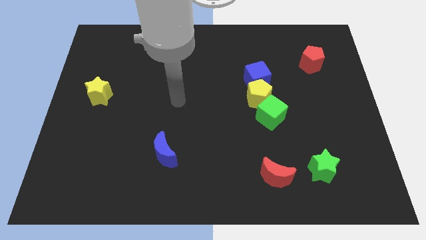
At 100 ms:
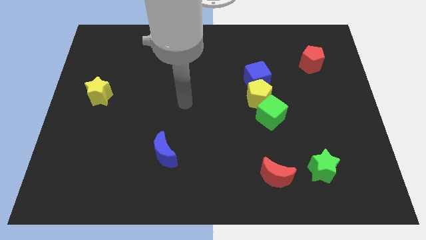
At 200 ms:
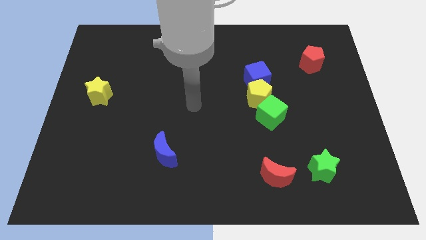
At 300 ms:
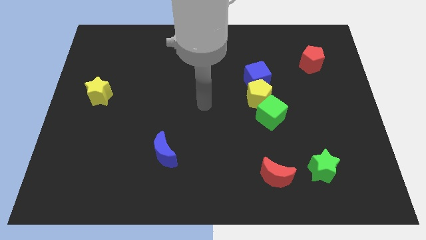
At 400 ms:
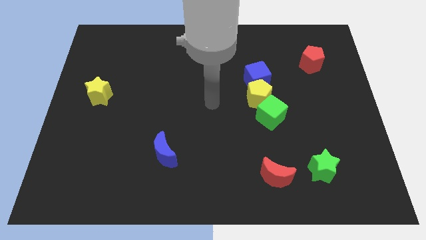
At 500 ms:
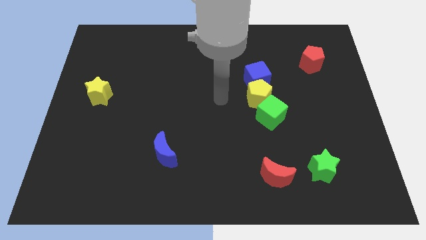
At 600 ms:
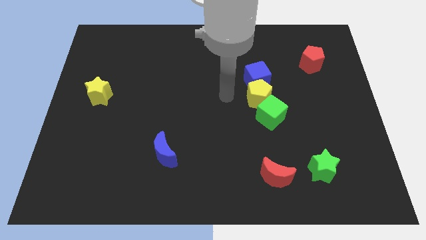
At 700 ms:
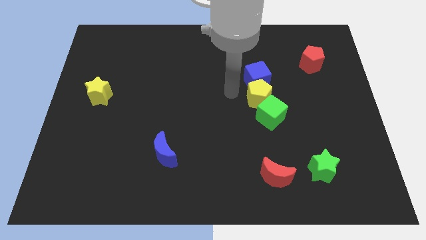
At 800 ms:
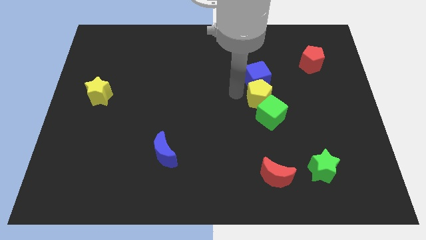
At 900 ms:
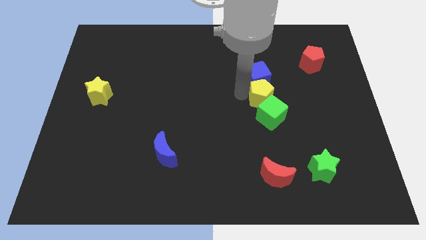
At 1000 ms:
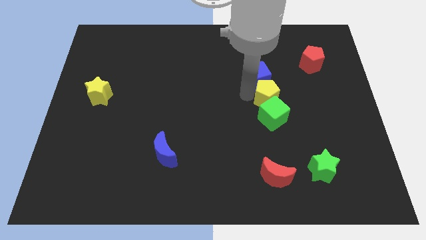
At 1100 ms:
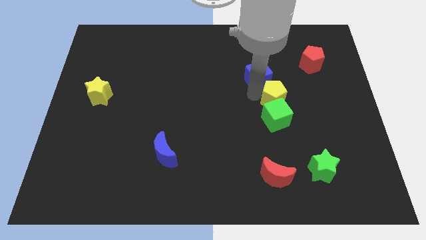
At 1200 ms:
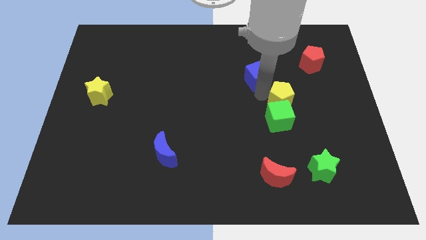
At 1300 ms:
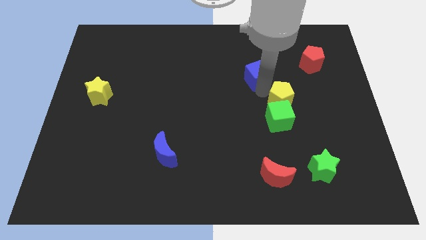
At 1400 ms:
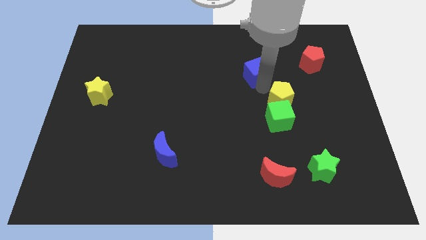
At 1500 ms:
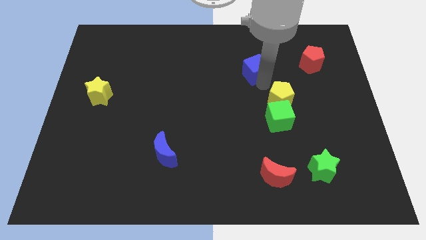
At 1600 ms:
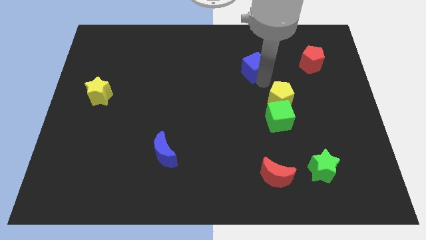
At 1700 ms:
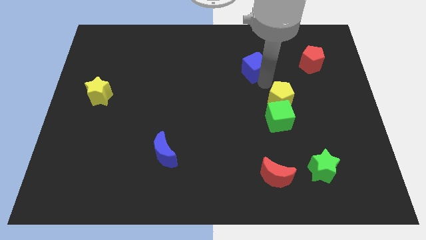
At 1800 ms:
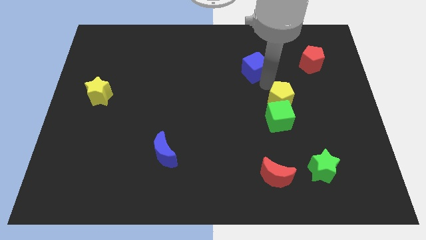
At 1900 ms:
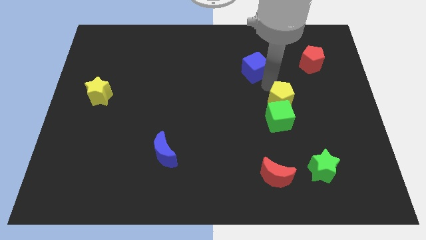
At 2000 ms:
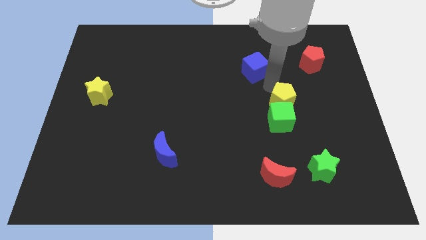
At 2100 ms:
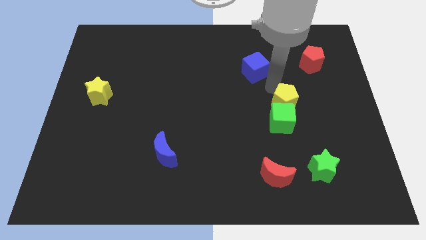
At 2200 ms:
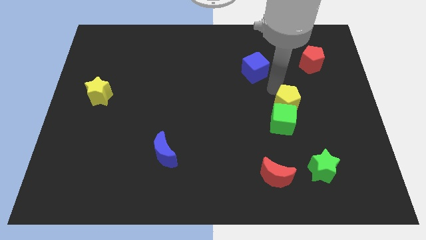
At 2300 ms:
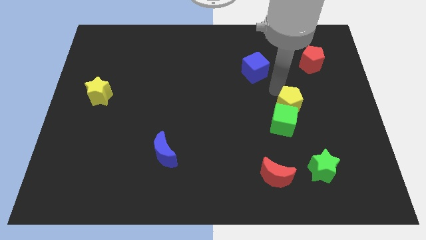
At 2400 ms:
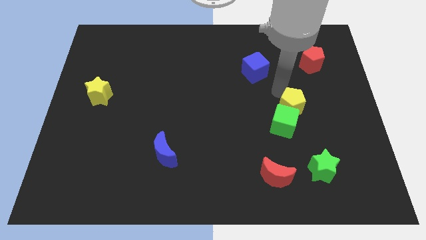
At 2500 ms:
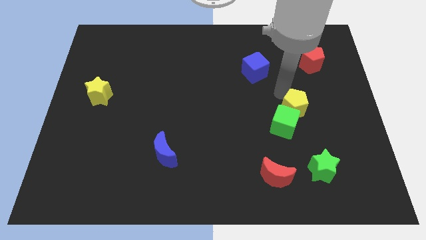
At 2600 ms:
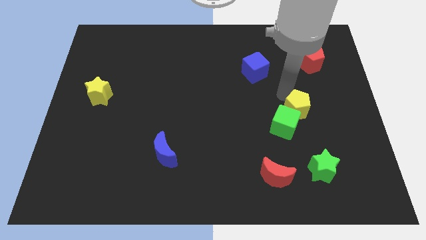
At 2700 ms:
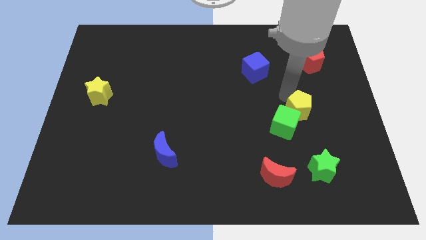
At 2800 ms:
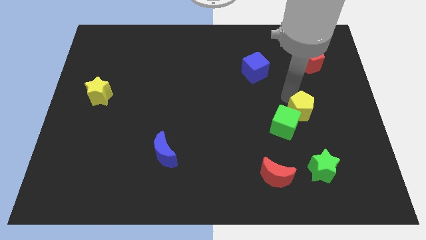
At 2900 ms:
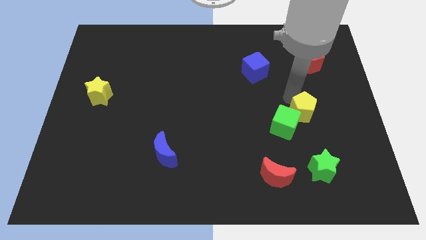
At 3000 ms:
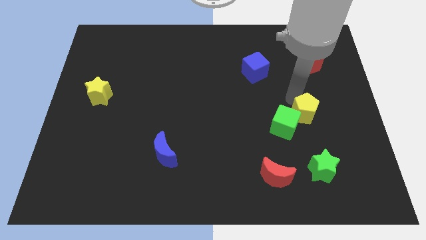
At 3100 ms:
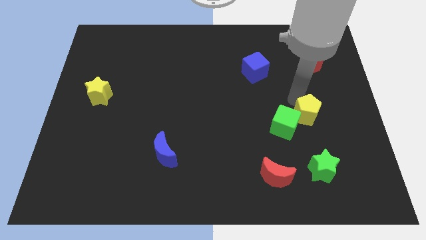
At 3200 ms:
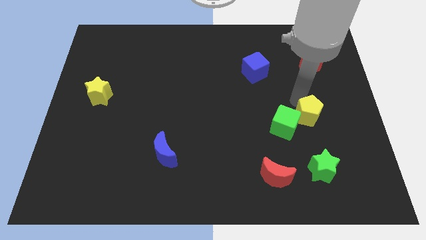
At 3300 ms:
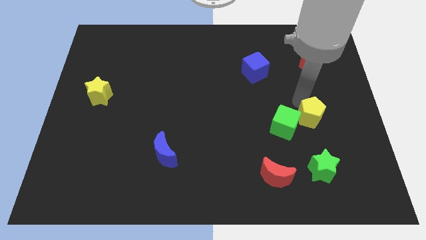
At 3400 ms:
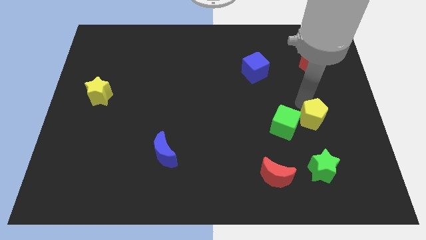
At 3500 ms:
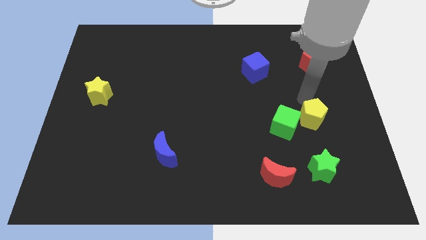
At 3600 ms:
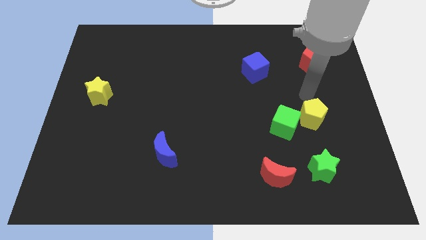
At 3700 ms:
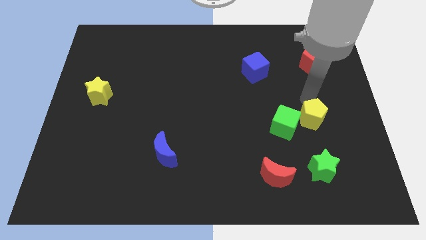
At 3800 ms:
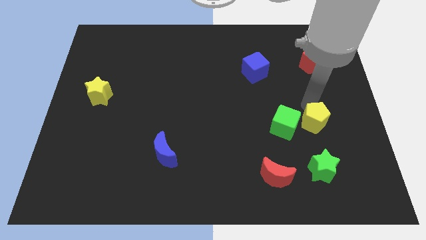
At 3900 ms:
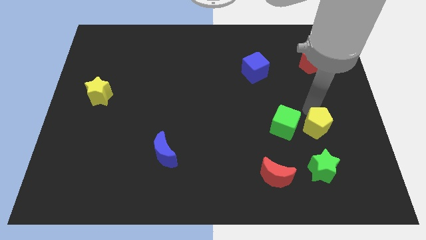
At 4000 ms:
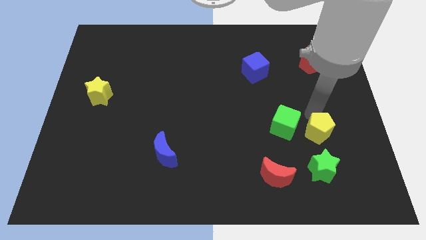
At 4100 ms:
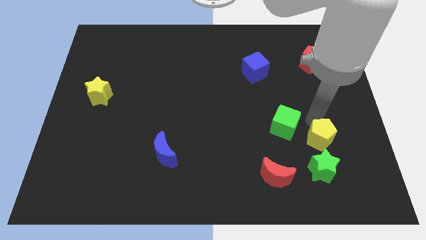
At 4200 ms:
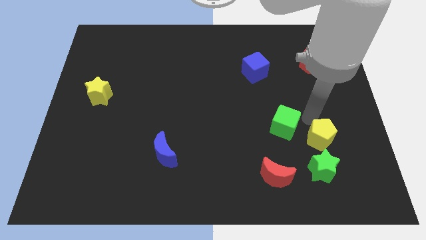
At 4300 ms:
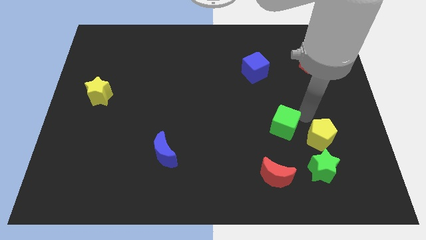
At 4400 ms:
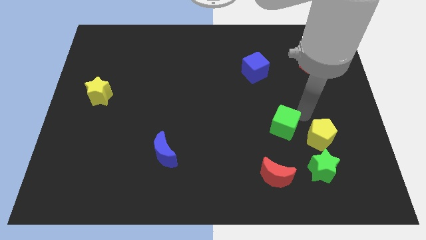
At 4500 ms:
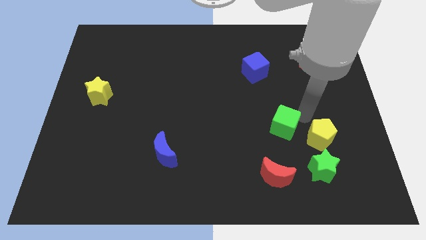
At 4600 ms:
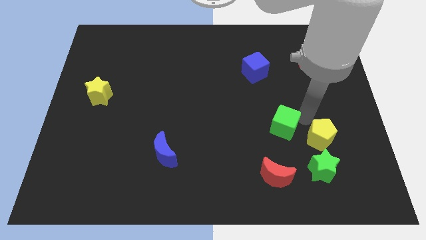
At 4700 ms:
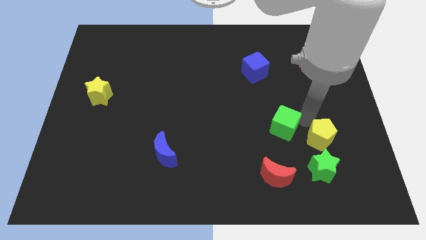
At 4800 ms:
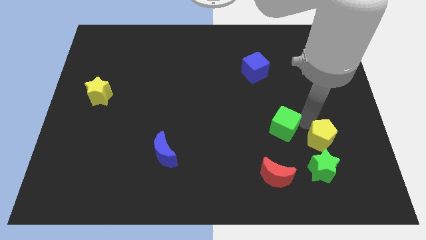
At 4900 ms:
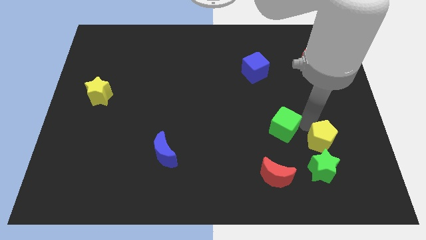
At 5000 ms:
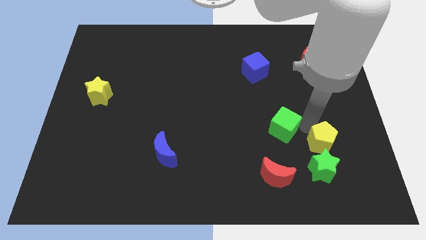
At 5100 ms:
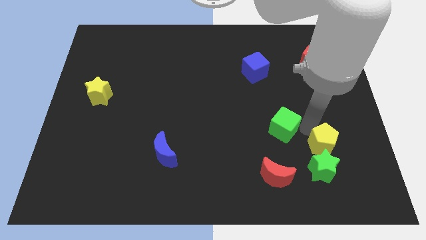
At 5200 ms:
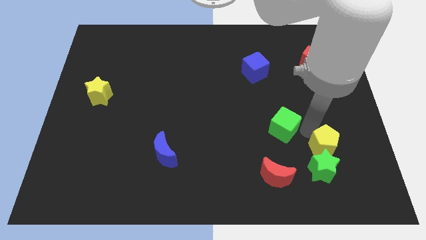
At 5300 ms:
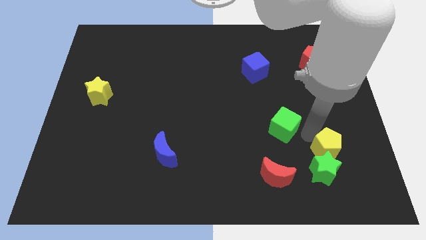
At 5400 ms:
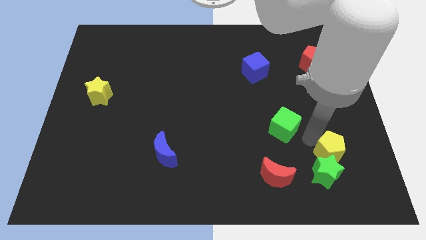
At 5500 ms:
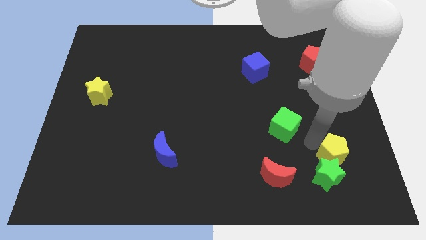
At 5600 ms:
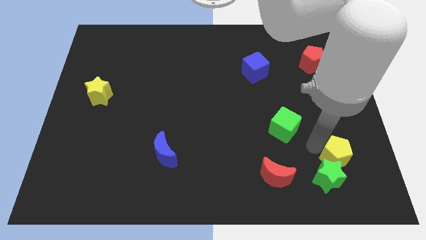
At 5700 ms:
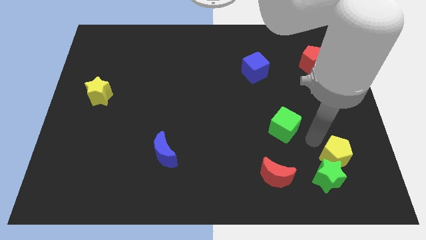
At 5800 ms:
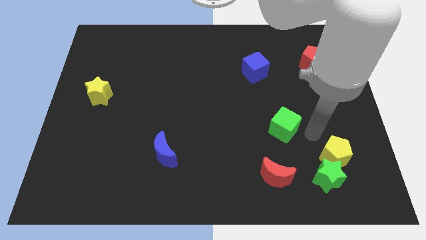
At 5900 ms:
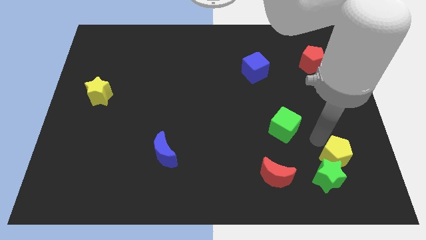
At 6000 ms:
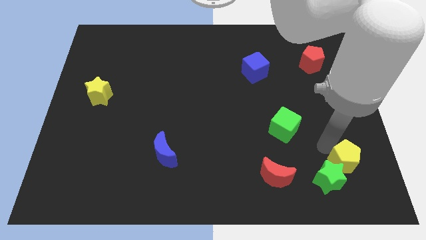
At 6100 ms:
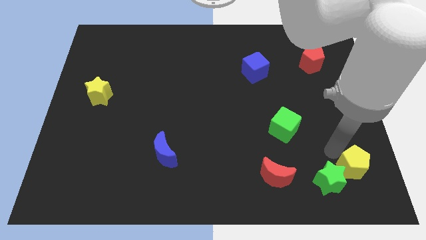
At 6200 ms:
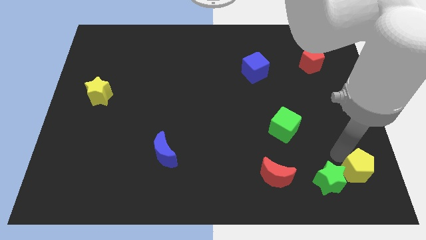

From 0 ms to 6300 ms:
slide the yellow pentagon to the lower right corner

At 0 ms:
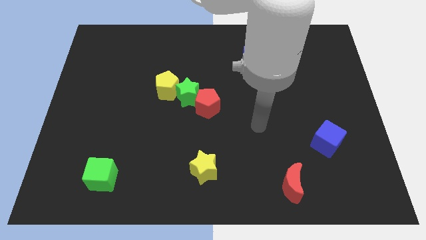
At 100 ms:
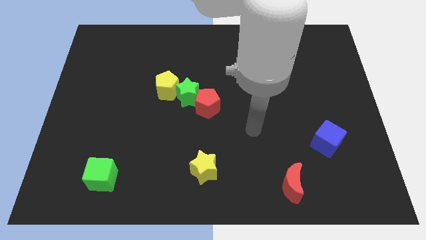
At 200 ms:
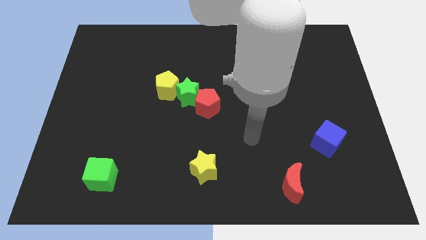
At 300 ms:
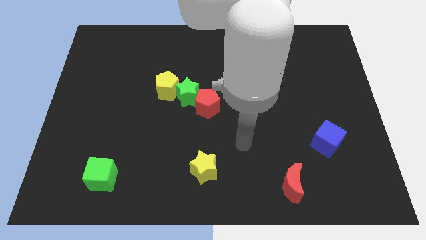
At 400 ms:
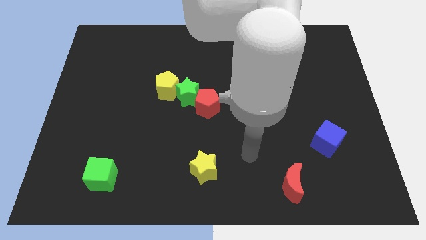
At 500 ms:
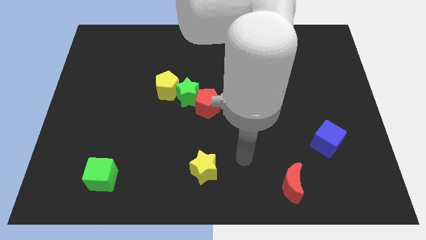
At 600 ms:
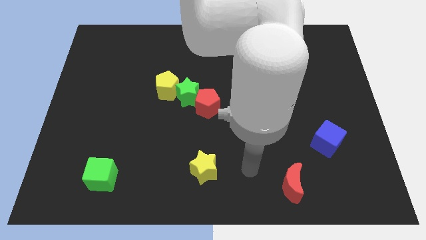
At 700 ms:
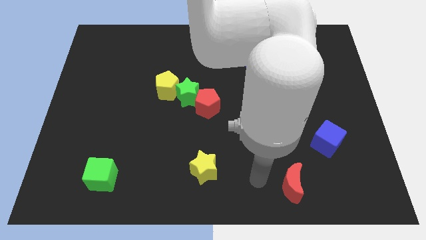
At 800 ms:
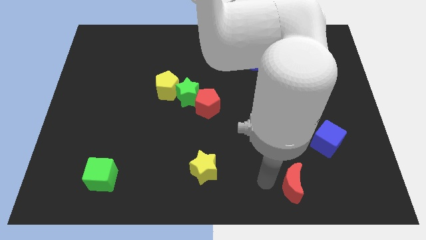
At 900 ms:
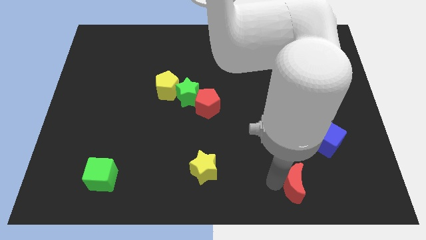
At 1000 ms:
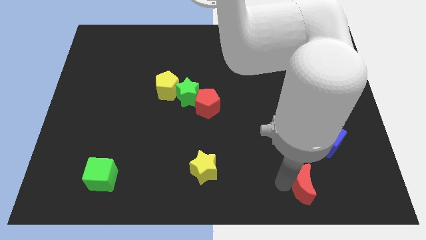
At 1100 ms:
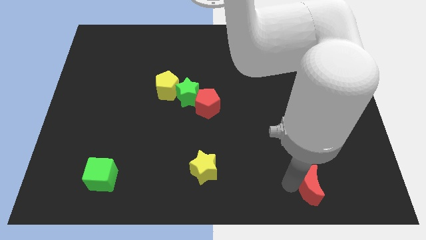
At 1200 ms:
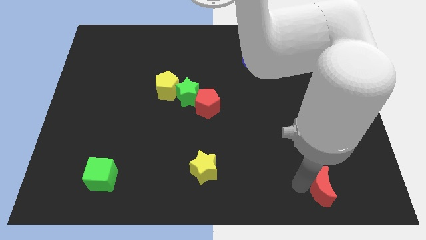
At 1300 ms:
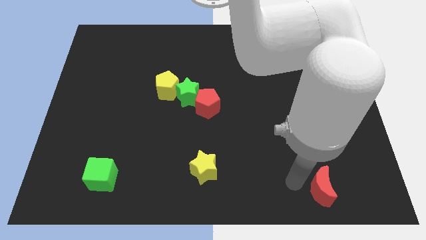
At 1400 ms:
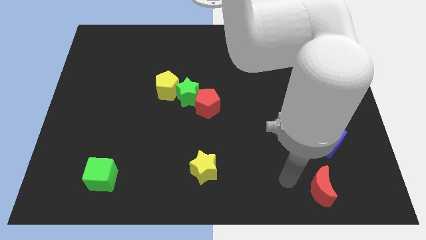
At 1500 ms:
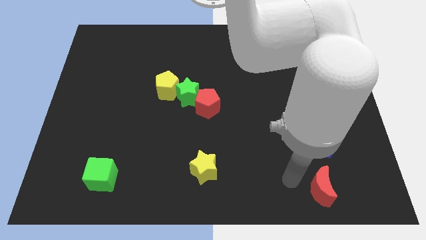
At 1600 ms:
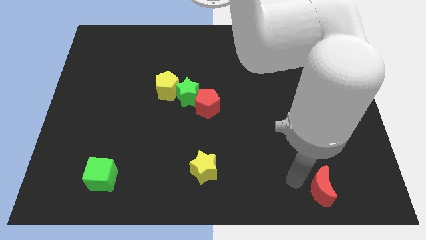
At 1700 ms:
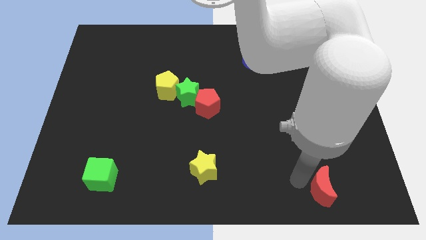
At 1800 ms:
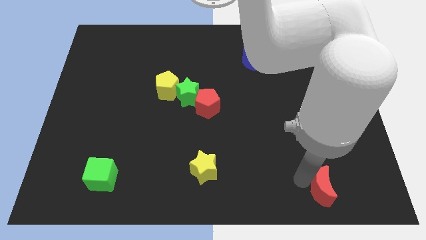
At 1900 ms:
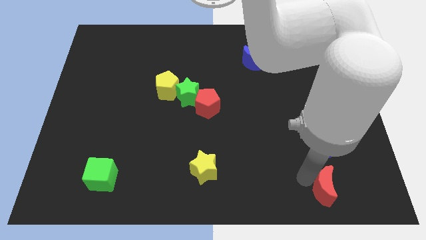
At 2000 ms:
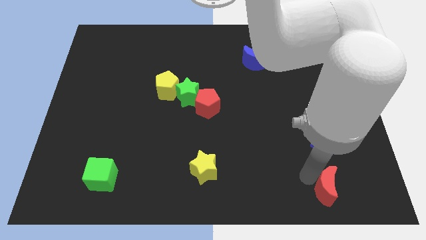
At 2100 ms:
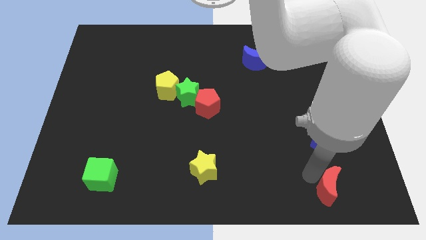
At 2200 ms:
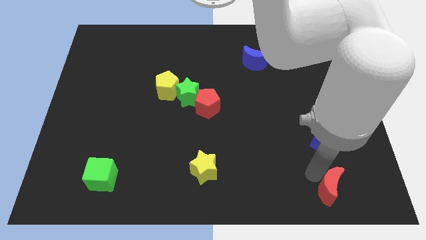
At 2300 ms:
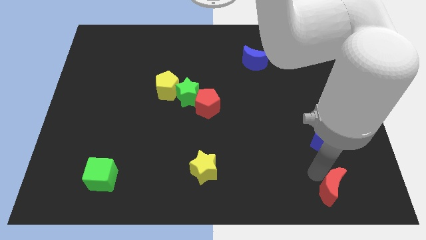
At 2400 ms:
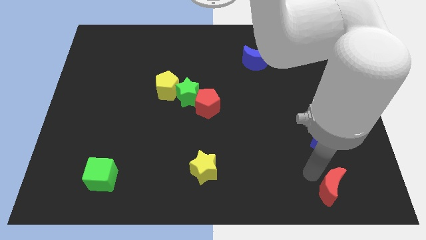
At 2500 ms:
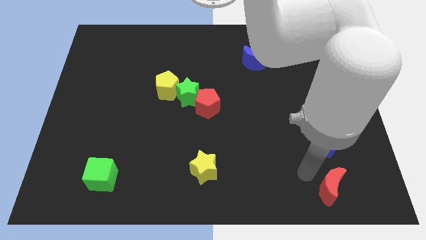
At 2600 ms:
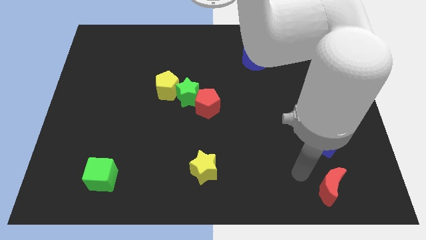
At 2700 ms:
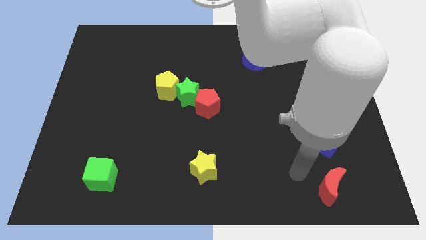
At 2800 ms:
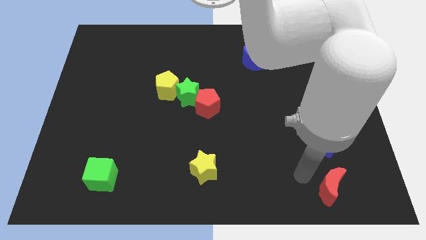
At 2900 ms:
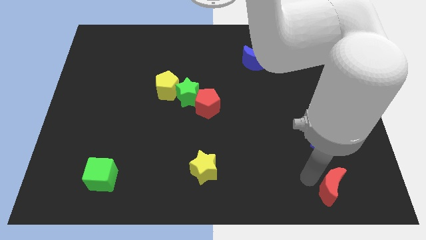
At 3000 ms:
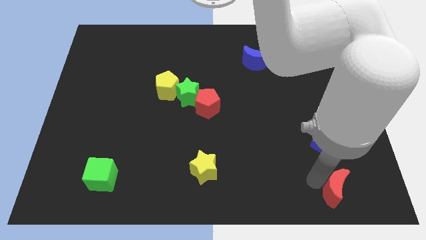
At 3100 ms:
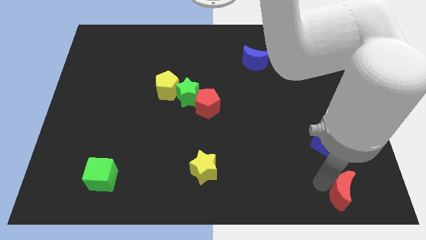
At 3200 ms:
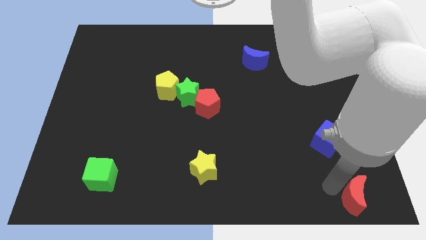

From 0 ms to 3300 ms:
push the red moon to the bottom right
